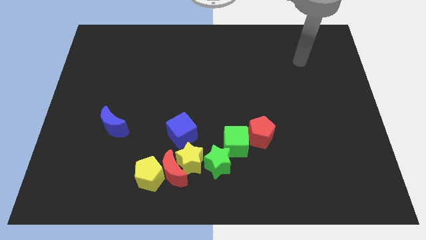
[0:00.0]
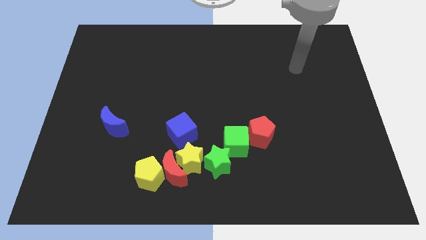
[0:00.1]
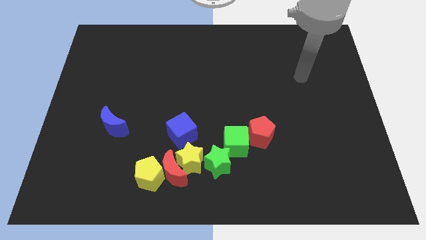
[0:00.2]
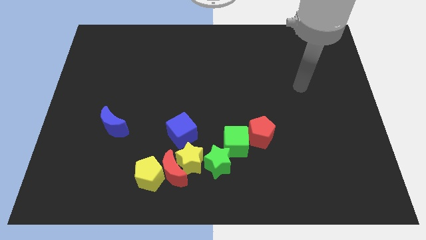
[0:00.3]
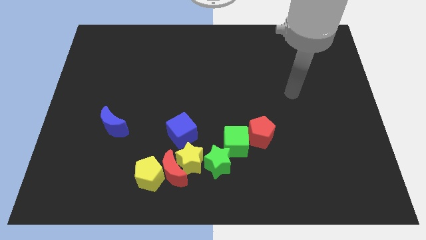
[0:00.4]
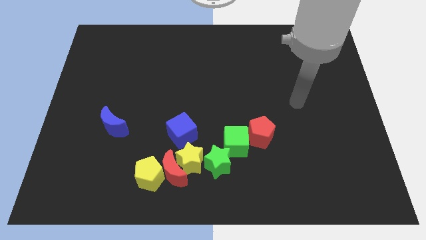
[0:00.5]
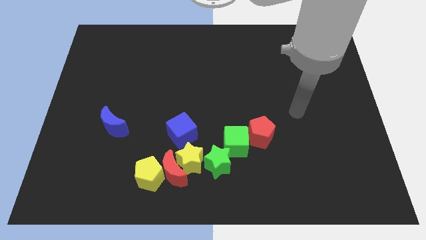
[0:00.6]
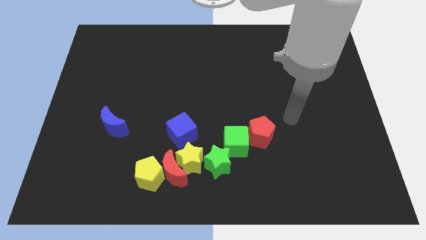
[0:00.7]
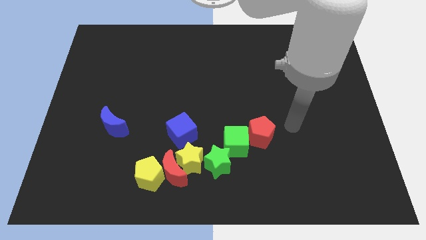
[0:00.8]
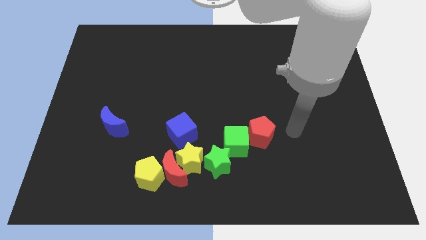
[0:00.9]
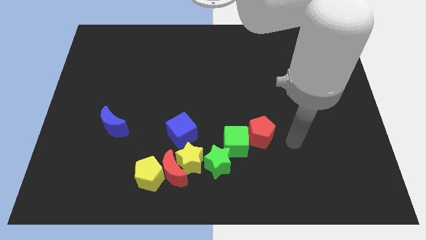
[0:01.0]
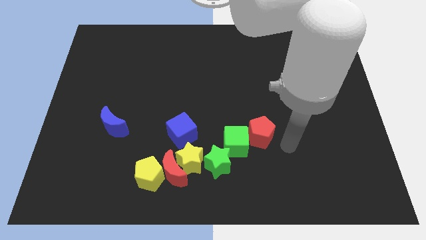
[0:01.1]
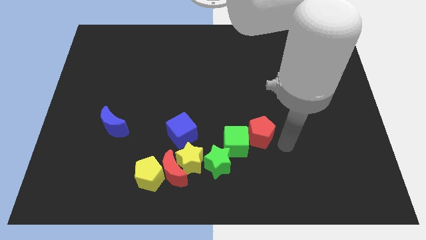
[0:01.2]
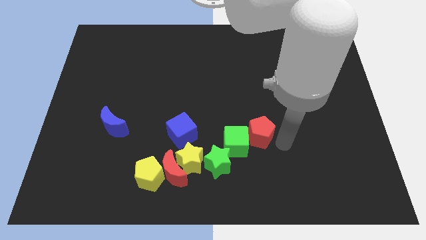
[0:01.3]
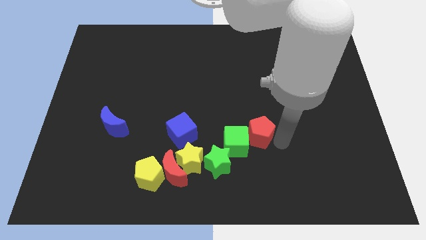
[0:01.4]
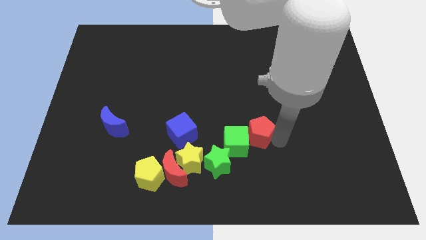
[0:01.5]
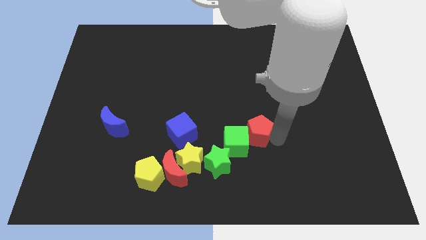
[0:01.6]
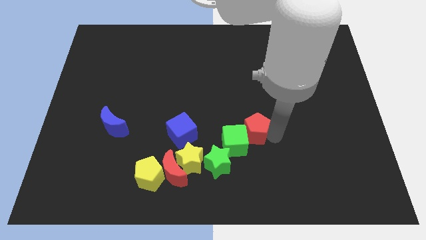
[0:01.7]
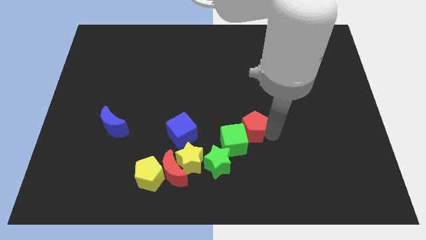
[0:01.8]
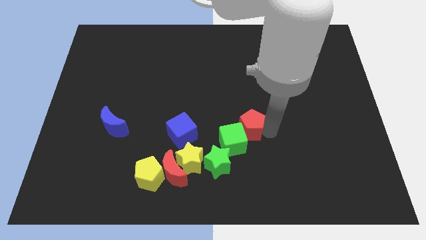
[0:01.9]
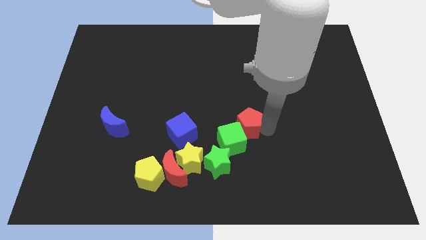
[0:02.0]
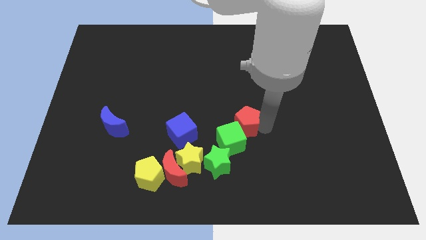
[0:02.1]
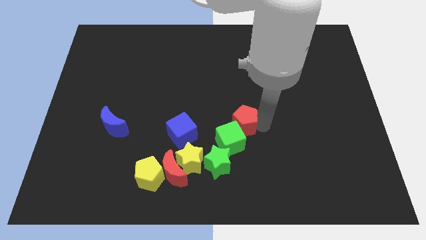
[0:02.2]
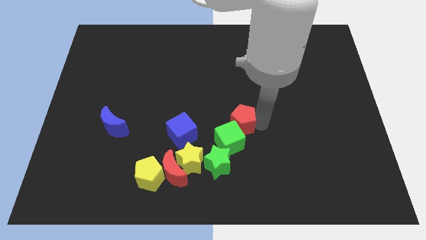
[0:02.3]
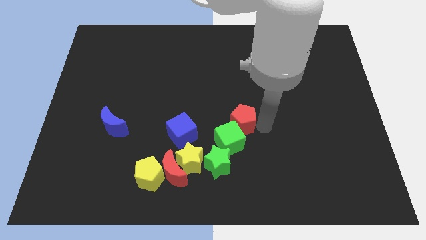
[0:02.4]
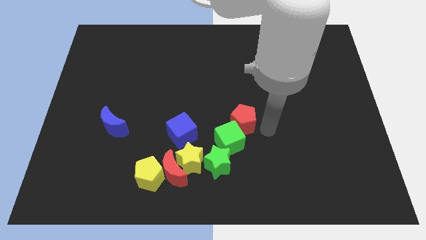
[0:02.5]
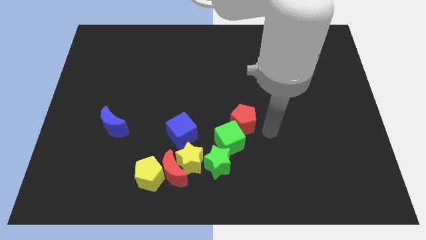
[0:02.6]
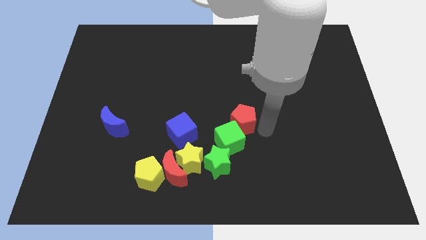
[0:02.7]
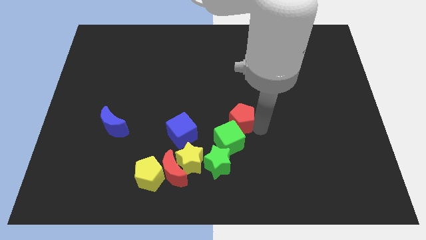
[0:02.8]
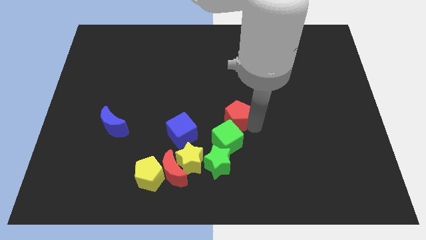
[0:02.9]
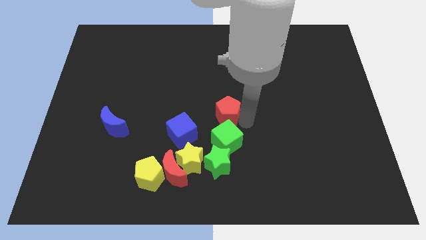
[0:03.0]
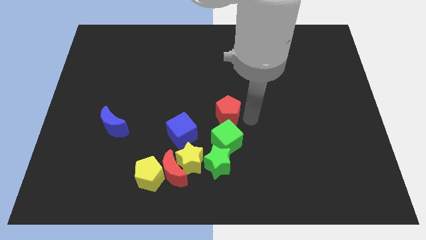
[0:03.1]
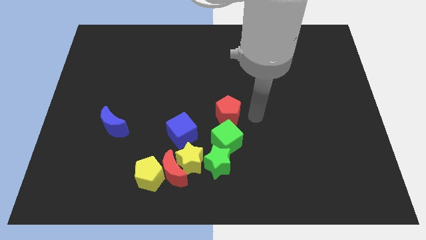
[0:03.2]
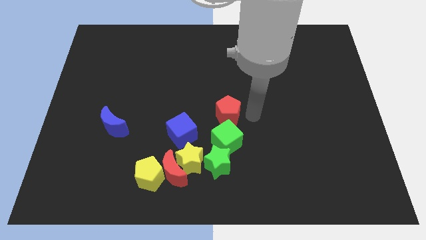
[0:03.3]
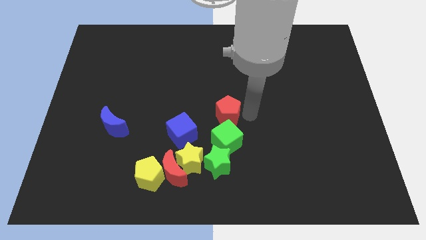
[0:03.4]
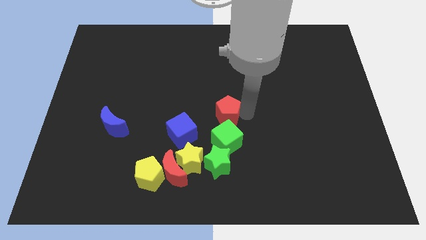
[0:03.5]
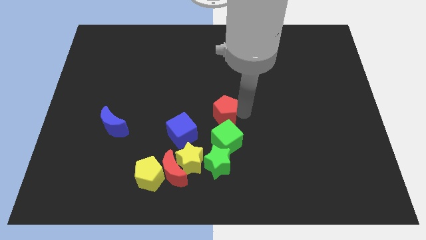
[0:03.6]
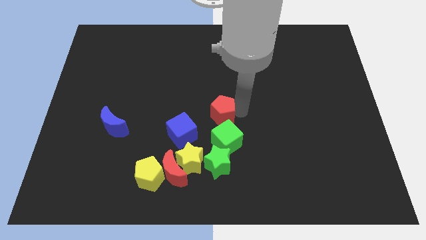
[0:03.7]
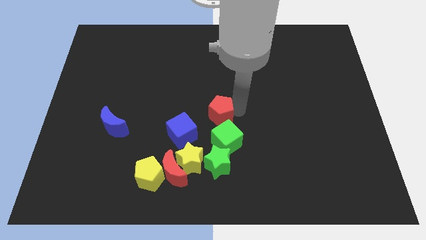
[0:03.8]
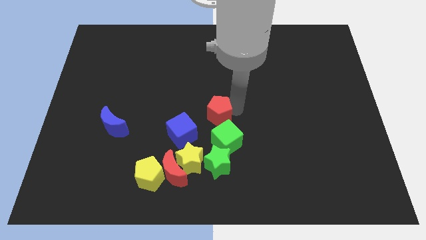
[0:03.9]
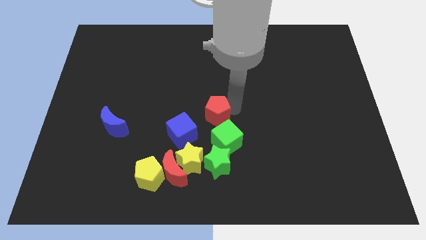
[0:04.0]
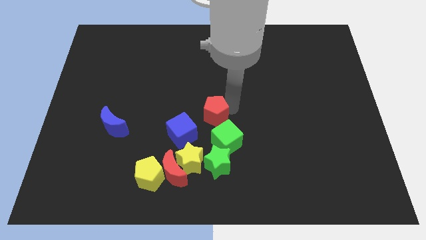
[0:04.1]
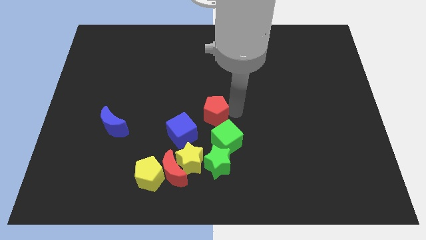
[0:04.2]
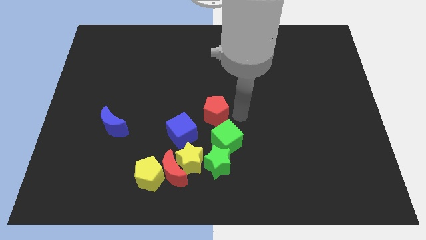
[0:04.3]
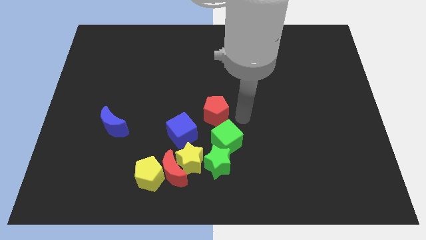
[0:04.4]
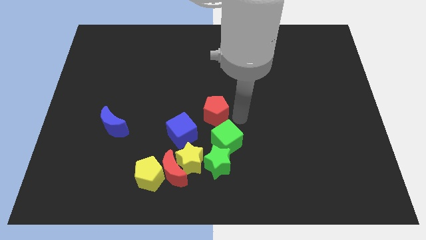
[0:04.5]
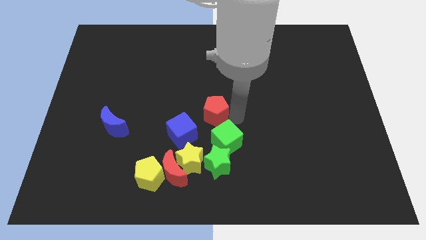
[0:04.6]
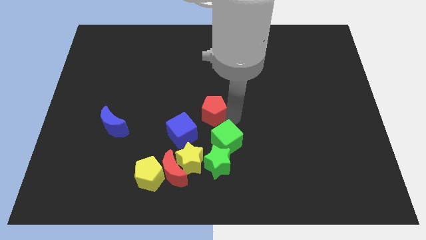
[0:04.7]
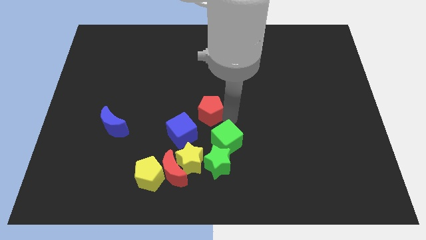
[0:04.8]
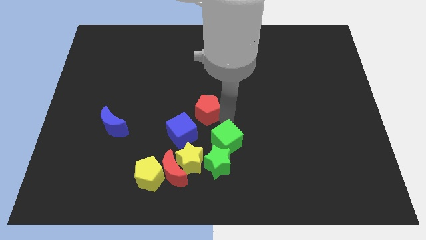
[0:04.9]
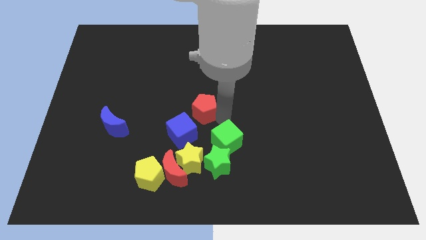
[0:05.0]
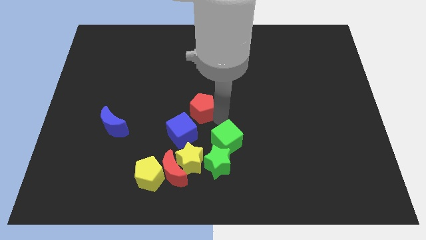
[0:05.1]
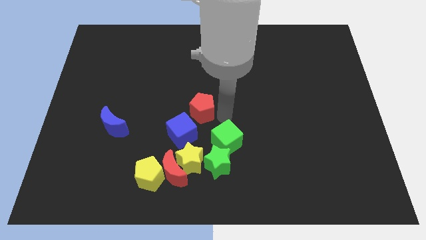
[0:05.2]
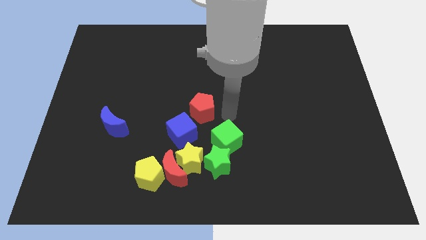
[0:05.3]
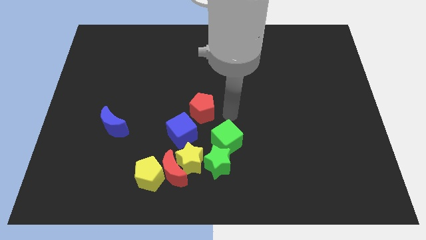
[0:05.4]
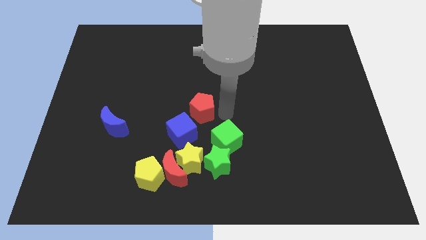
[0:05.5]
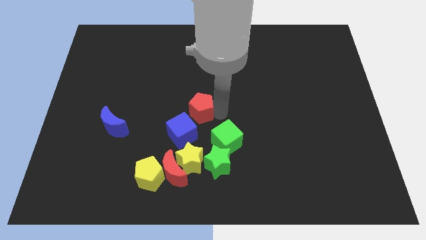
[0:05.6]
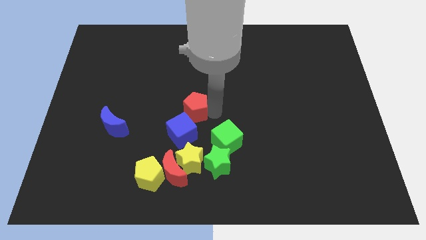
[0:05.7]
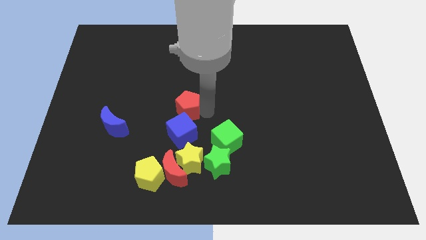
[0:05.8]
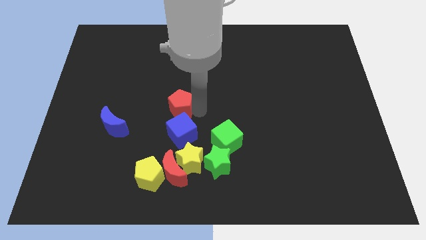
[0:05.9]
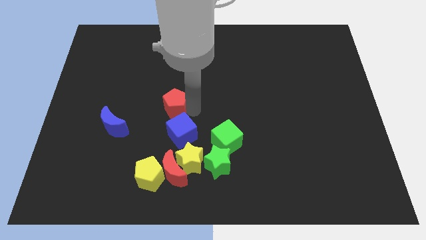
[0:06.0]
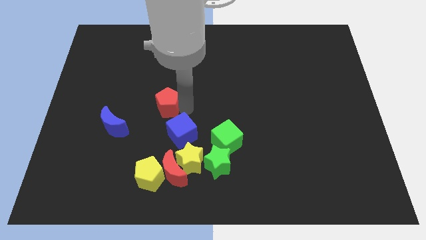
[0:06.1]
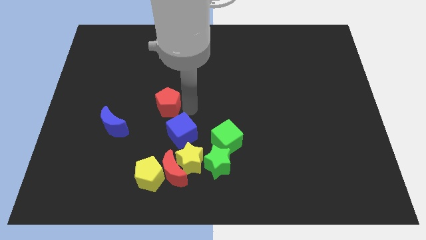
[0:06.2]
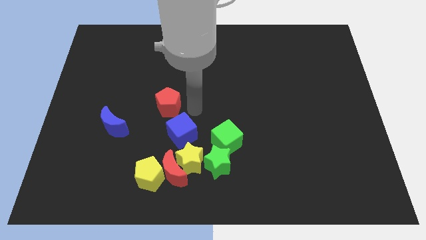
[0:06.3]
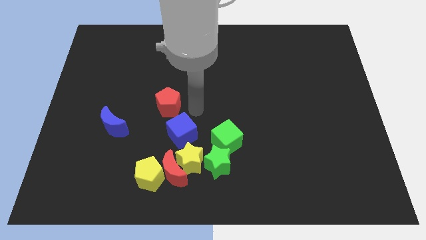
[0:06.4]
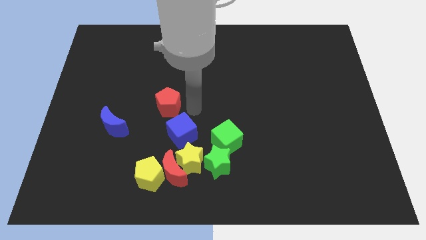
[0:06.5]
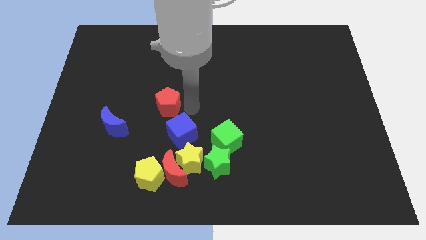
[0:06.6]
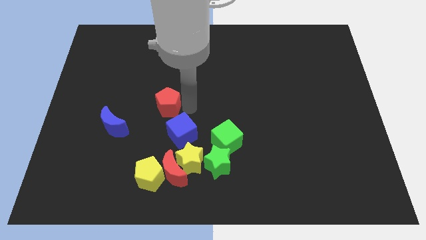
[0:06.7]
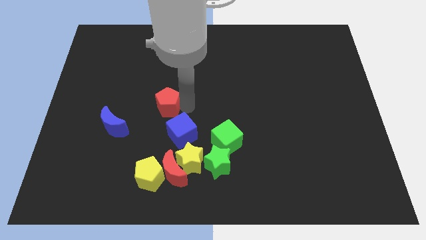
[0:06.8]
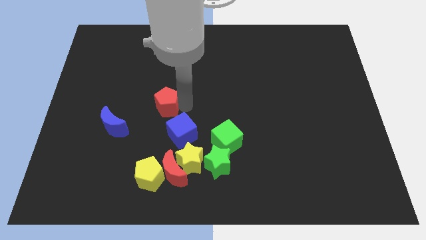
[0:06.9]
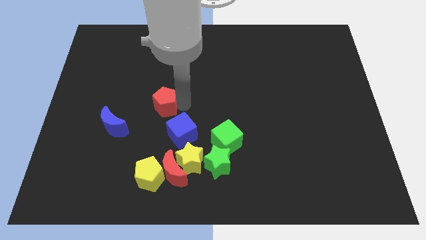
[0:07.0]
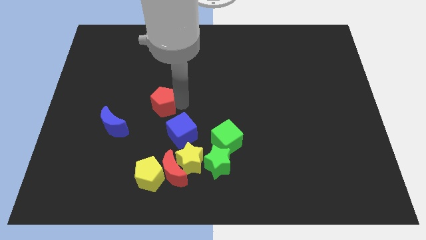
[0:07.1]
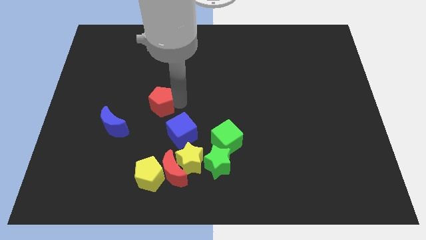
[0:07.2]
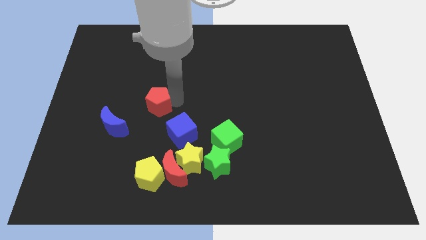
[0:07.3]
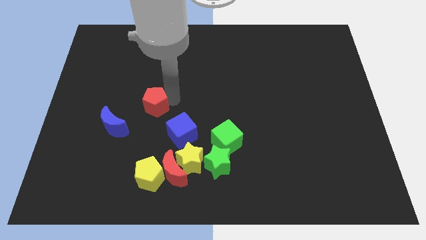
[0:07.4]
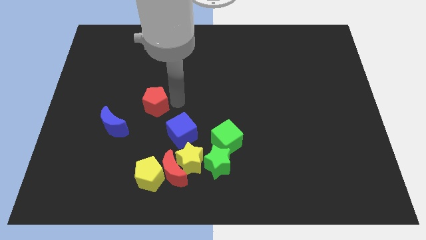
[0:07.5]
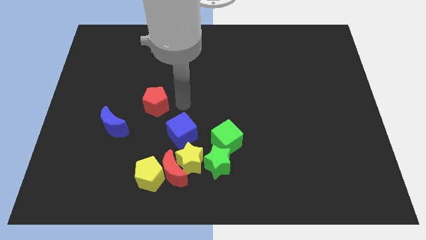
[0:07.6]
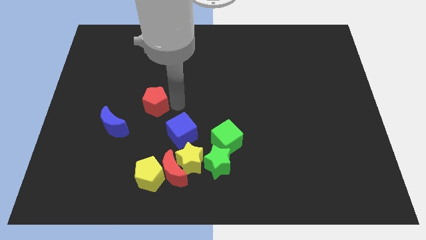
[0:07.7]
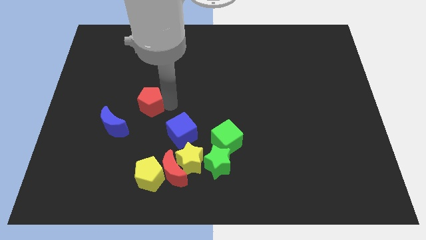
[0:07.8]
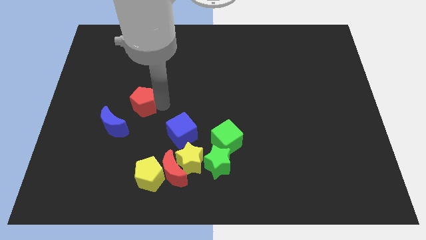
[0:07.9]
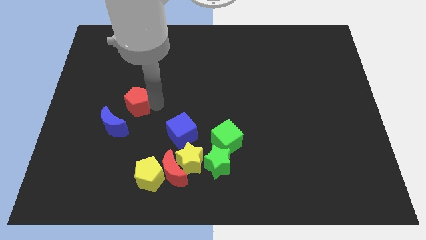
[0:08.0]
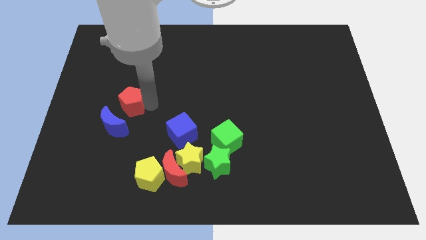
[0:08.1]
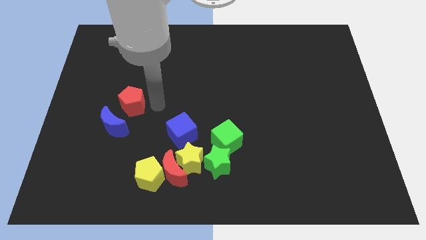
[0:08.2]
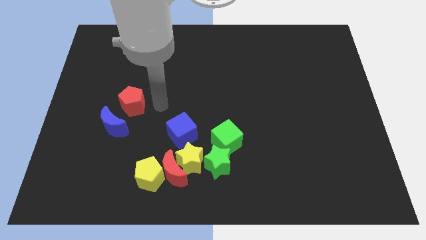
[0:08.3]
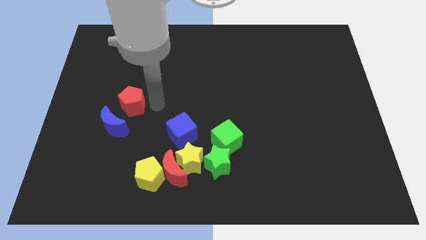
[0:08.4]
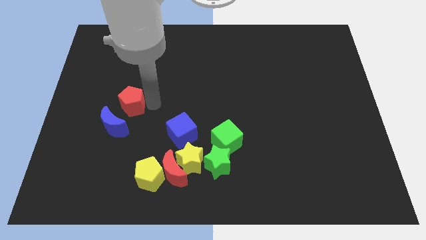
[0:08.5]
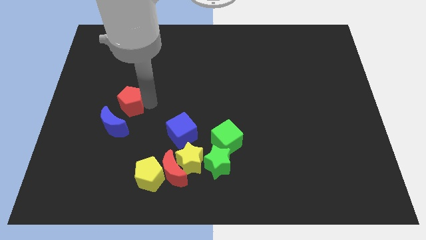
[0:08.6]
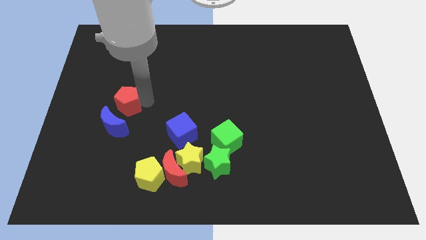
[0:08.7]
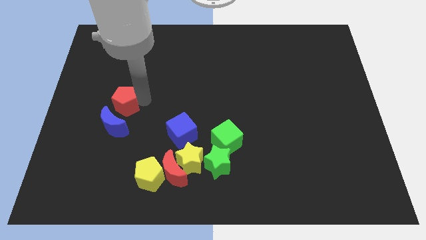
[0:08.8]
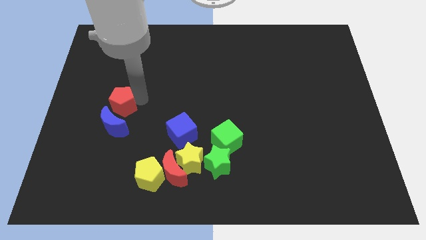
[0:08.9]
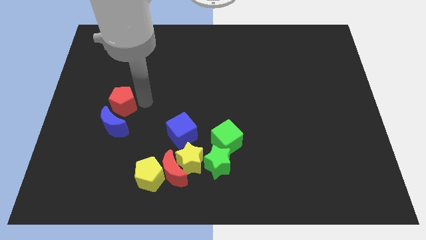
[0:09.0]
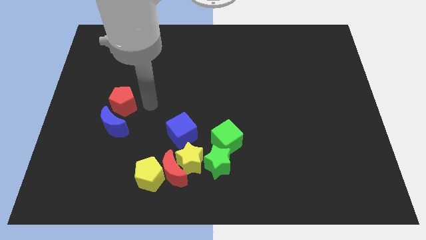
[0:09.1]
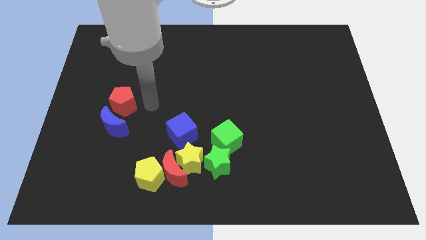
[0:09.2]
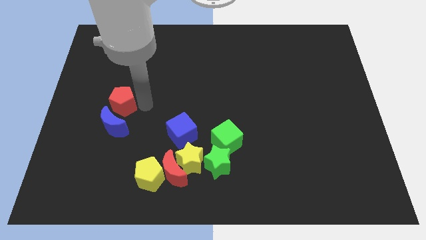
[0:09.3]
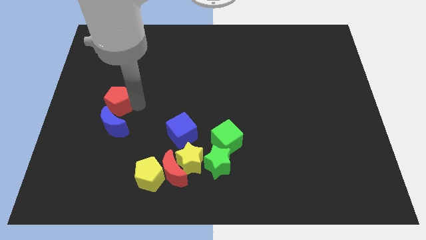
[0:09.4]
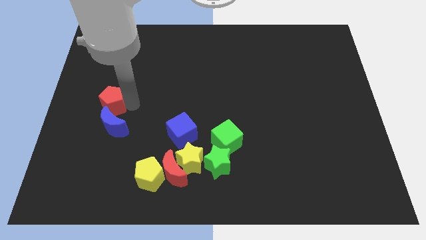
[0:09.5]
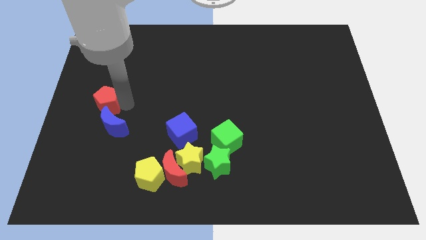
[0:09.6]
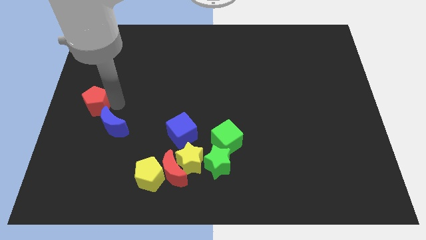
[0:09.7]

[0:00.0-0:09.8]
push the red pentagon to the left side
